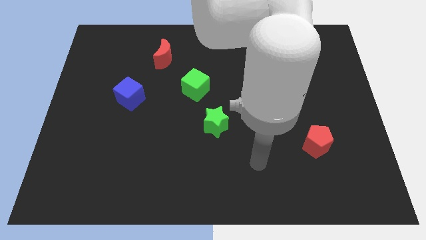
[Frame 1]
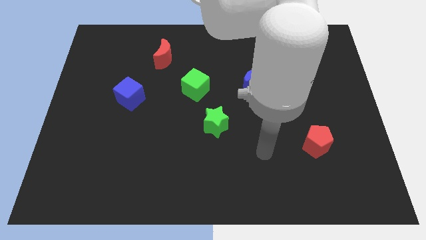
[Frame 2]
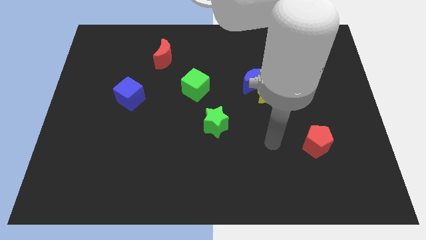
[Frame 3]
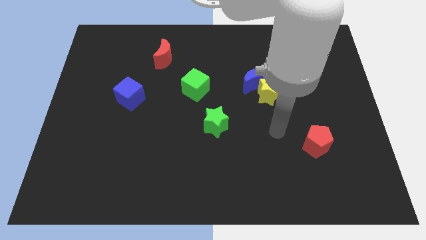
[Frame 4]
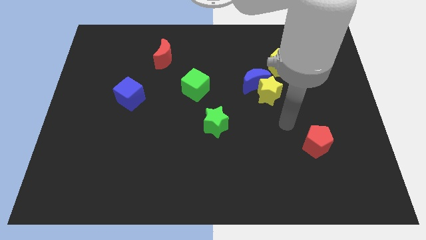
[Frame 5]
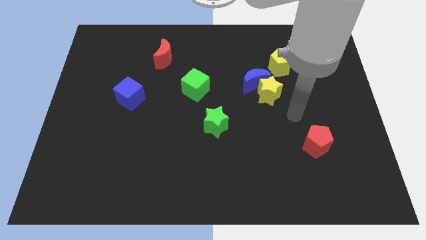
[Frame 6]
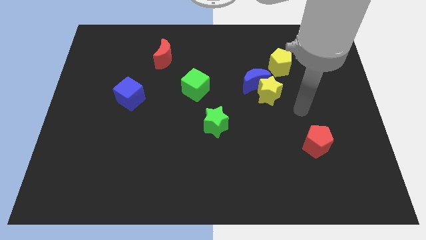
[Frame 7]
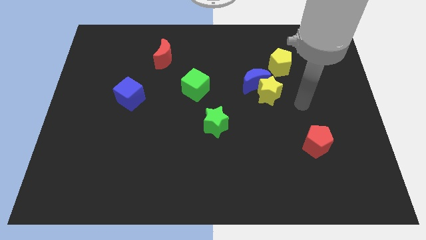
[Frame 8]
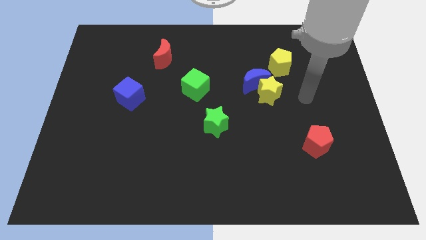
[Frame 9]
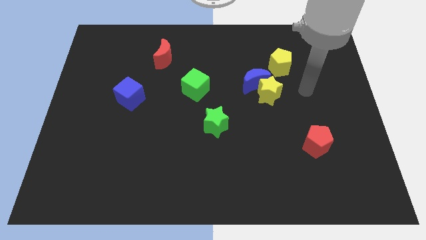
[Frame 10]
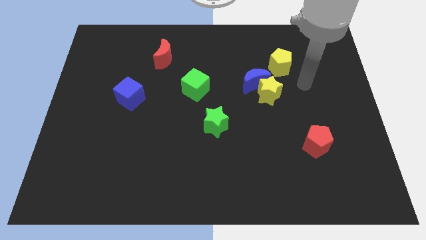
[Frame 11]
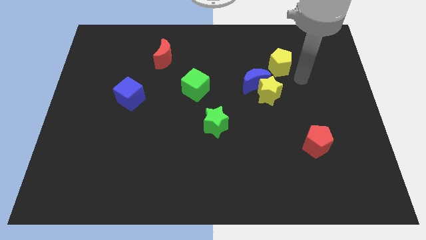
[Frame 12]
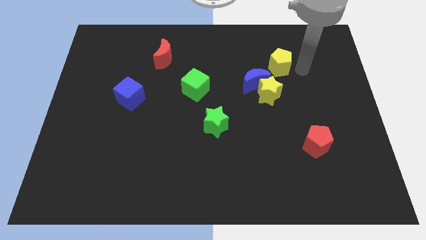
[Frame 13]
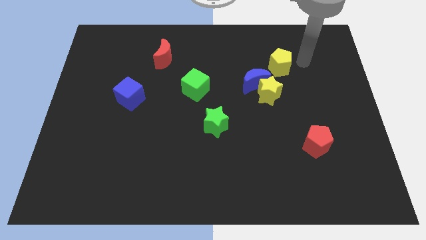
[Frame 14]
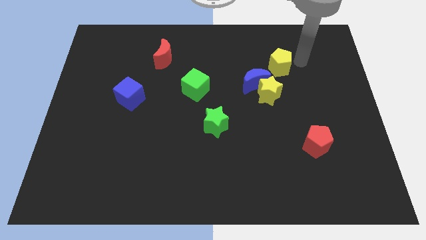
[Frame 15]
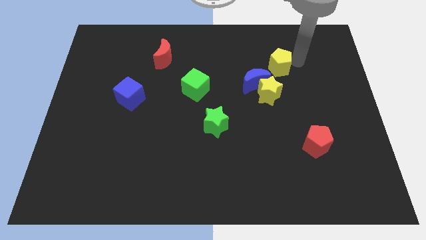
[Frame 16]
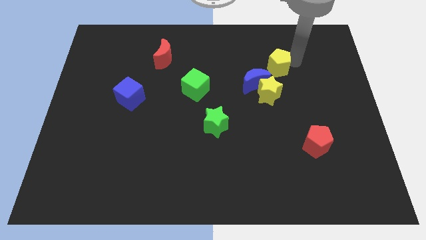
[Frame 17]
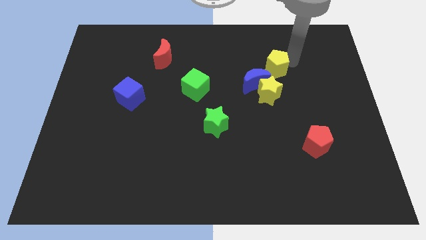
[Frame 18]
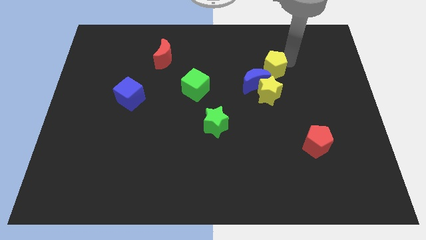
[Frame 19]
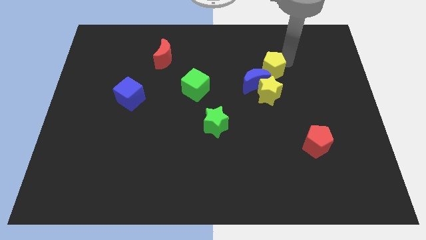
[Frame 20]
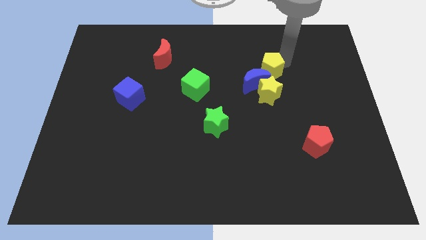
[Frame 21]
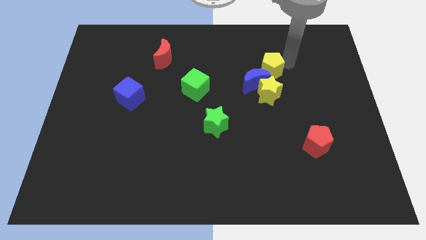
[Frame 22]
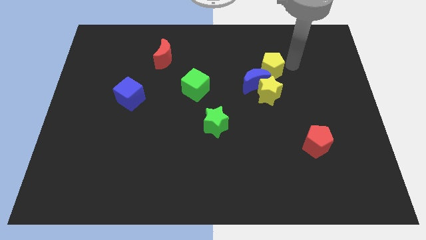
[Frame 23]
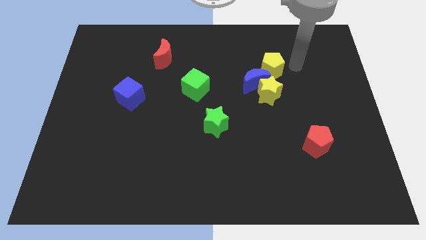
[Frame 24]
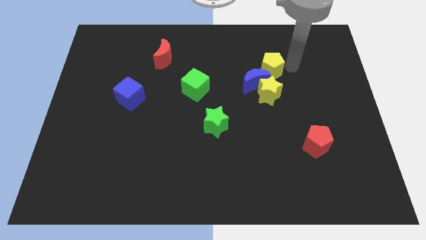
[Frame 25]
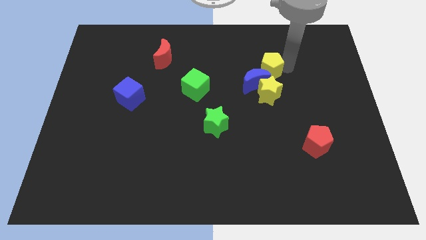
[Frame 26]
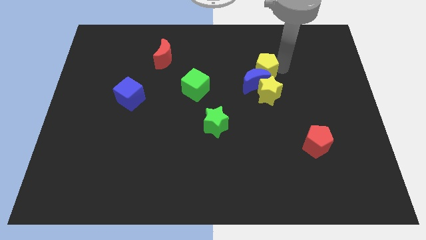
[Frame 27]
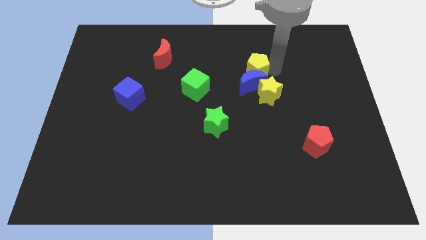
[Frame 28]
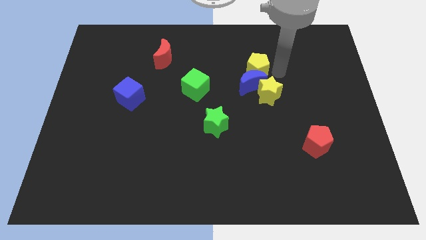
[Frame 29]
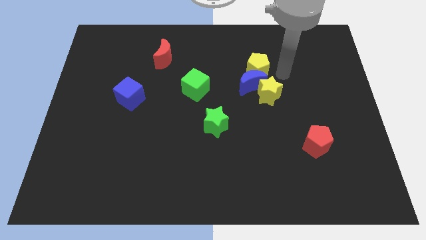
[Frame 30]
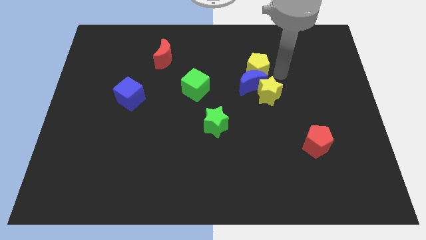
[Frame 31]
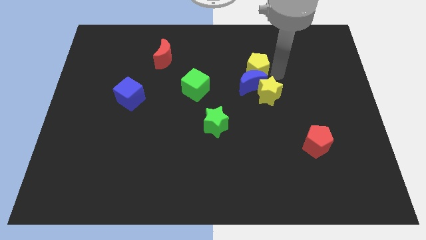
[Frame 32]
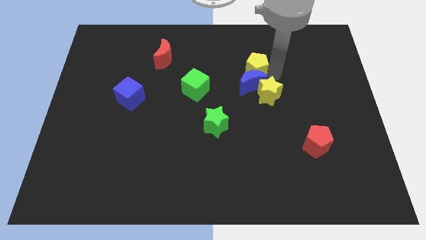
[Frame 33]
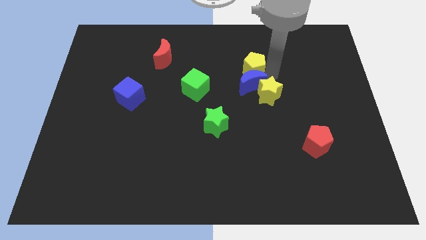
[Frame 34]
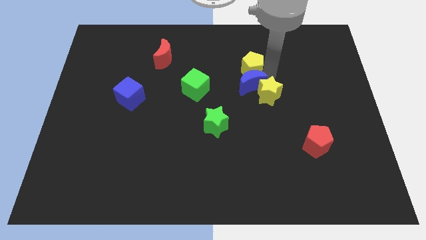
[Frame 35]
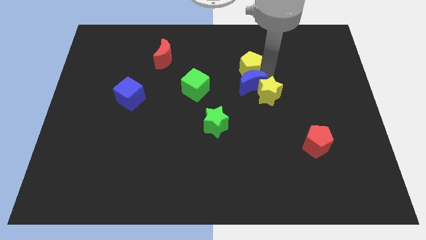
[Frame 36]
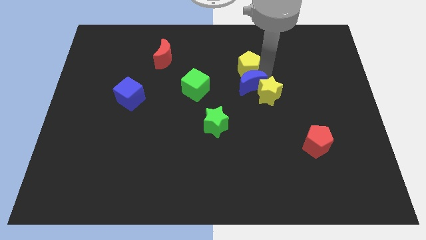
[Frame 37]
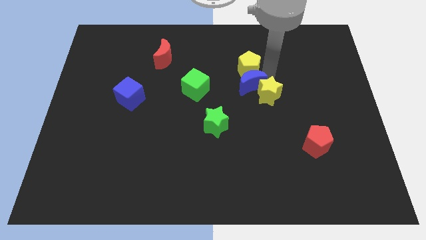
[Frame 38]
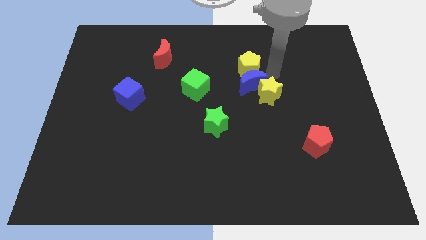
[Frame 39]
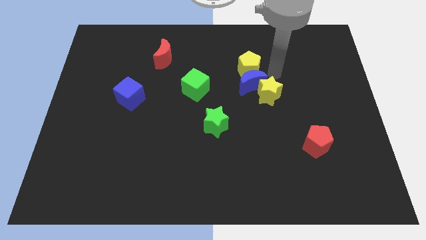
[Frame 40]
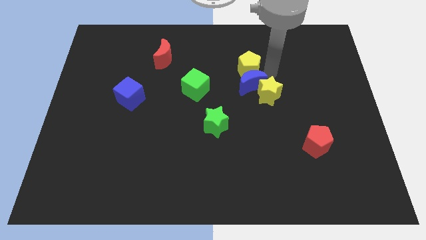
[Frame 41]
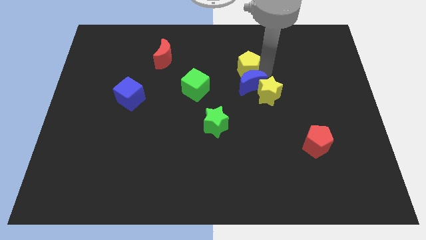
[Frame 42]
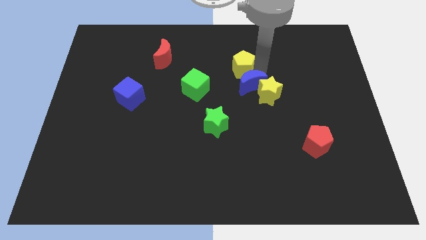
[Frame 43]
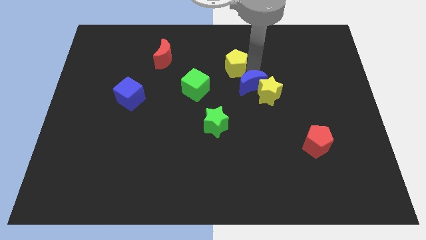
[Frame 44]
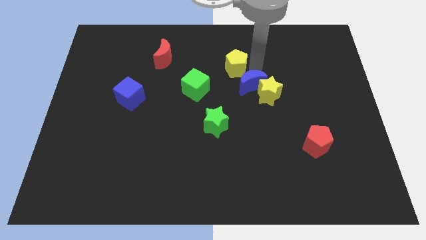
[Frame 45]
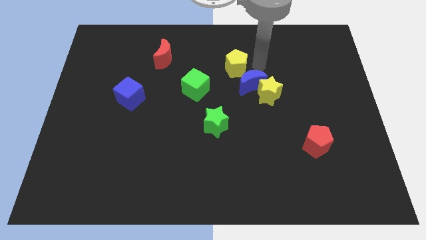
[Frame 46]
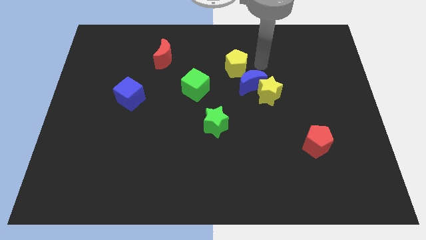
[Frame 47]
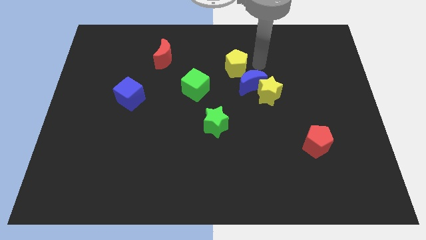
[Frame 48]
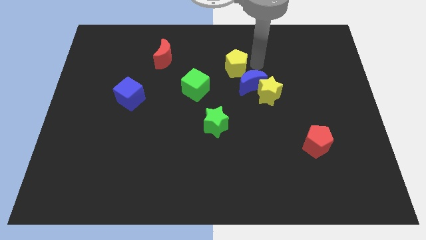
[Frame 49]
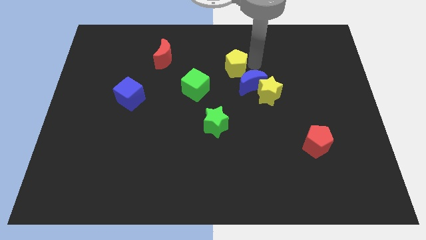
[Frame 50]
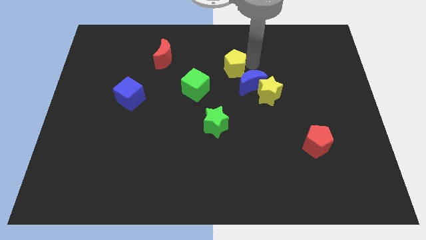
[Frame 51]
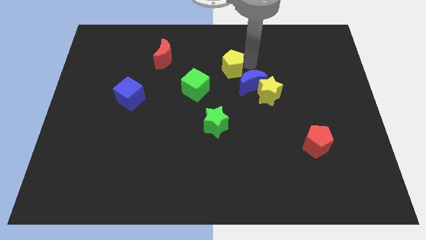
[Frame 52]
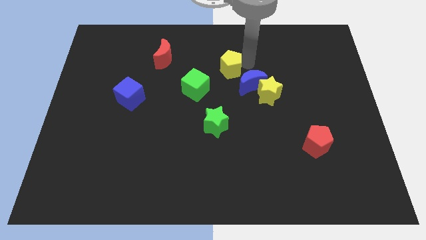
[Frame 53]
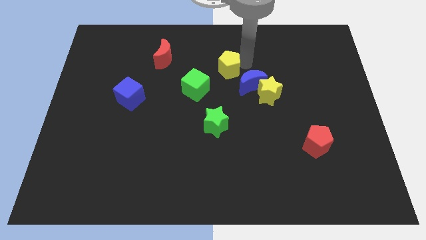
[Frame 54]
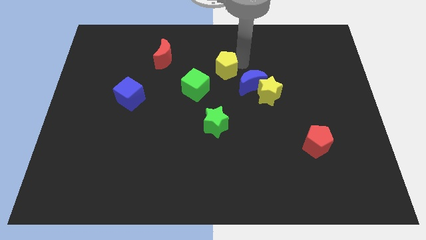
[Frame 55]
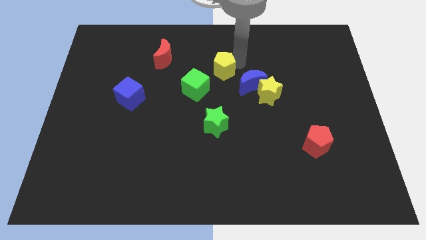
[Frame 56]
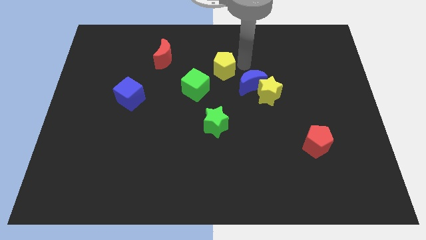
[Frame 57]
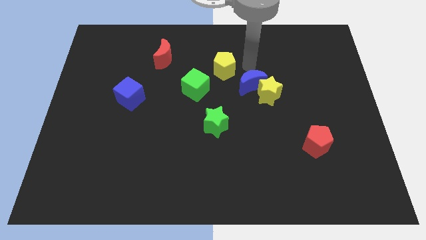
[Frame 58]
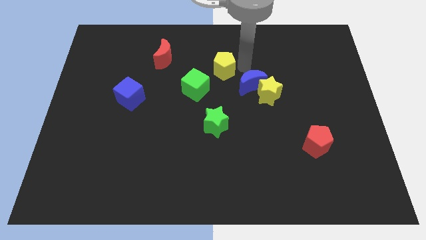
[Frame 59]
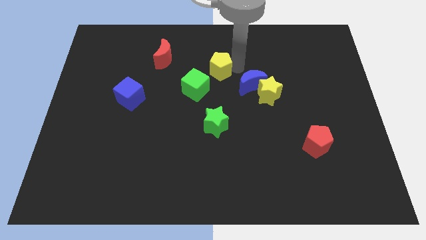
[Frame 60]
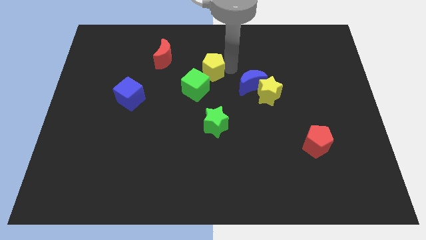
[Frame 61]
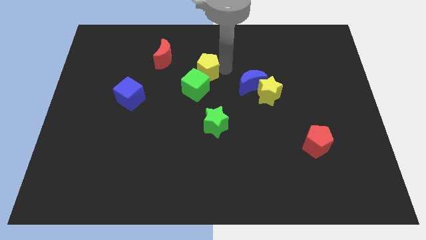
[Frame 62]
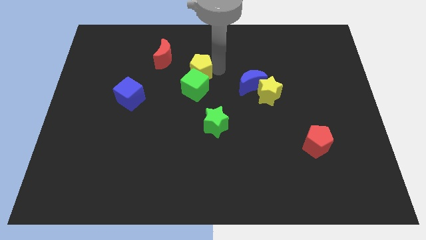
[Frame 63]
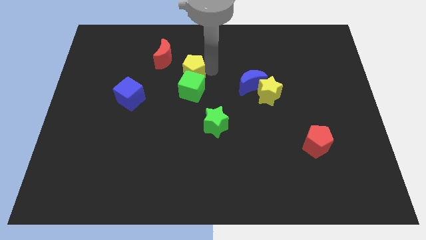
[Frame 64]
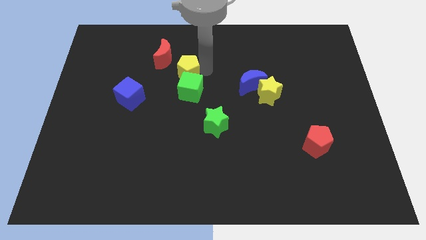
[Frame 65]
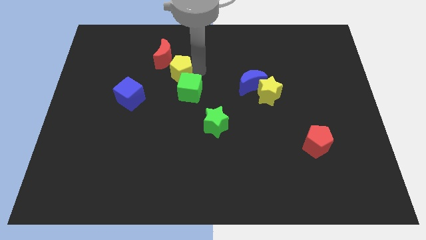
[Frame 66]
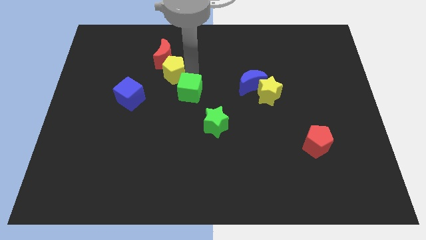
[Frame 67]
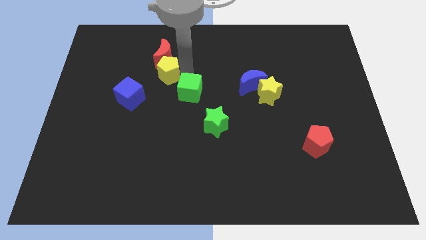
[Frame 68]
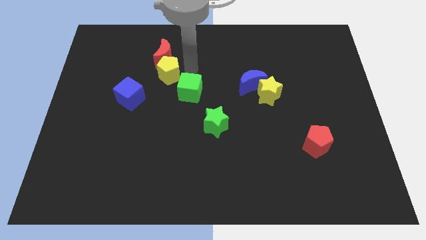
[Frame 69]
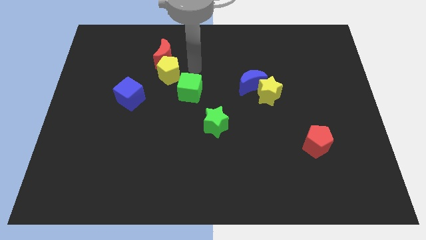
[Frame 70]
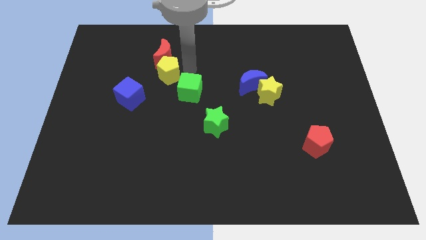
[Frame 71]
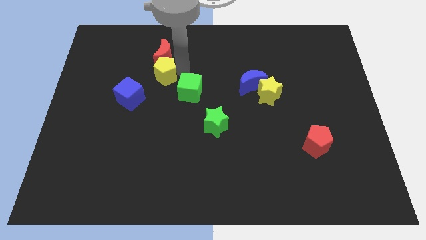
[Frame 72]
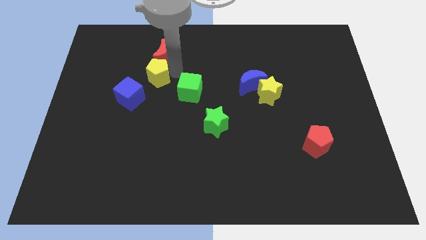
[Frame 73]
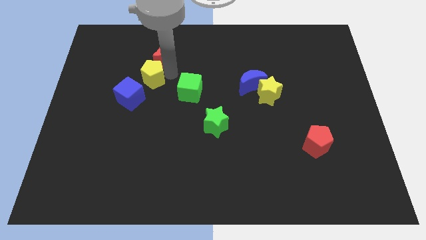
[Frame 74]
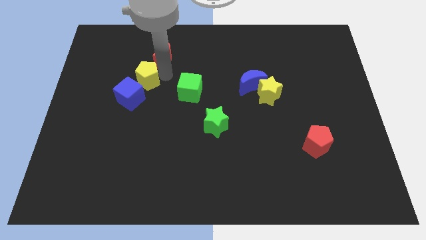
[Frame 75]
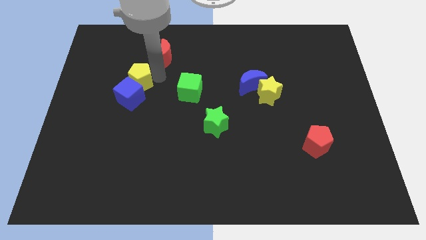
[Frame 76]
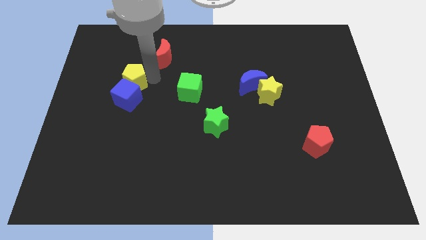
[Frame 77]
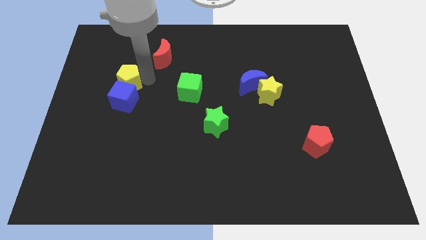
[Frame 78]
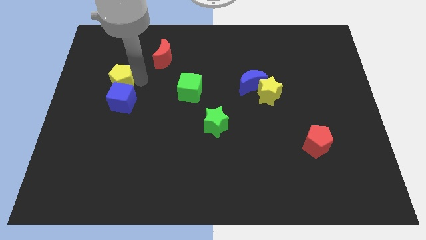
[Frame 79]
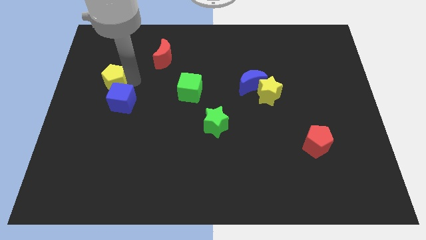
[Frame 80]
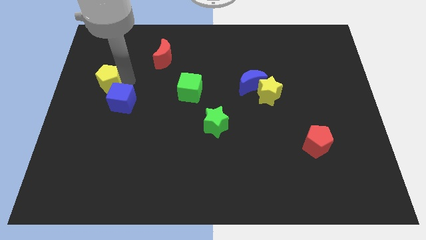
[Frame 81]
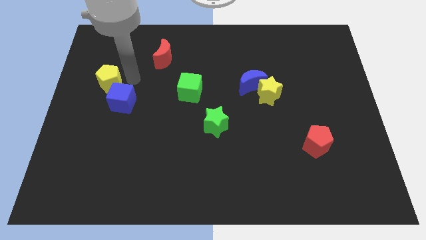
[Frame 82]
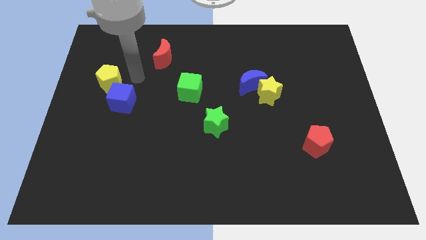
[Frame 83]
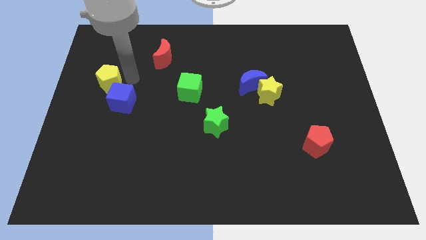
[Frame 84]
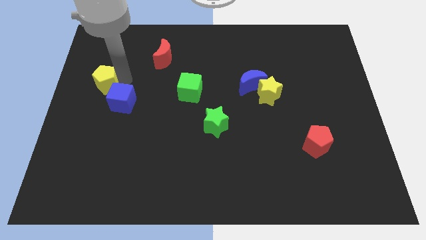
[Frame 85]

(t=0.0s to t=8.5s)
push the yellow pentagon to the center left
